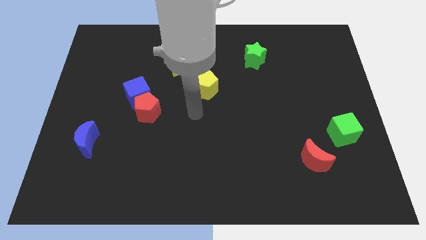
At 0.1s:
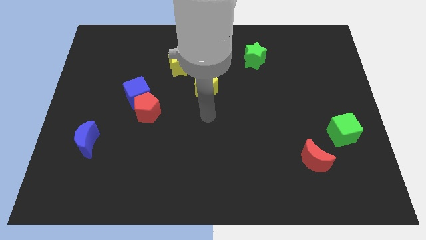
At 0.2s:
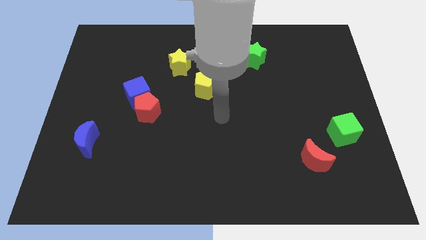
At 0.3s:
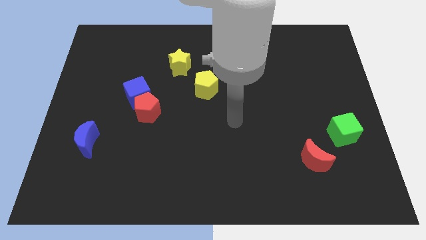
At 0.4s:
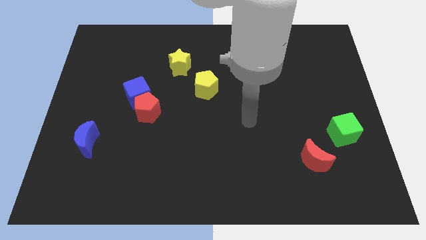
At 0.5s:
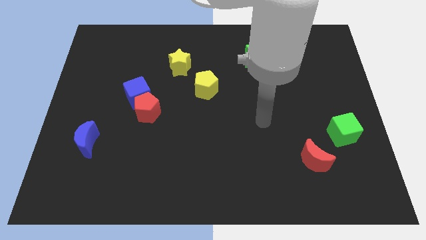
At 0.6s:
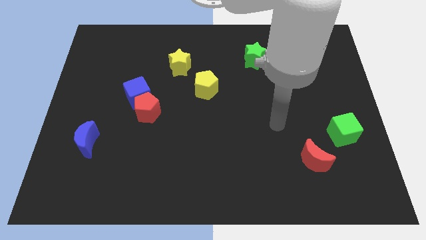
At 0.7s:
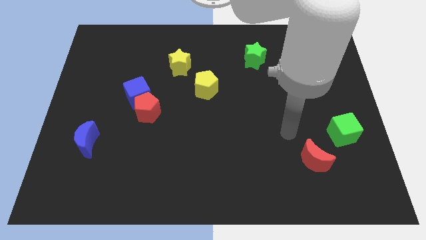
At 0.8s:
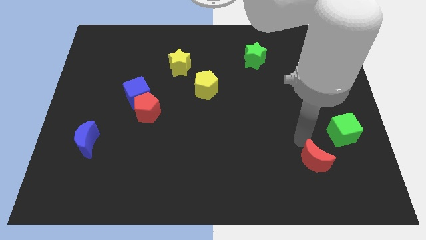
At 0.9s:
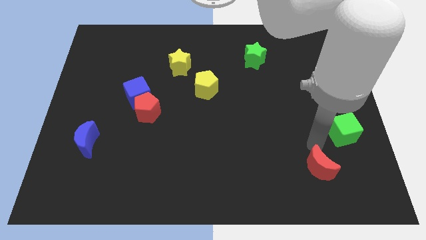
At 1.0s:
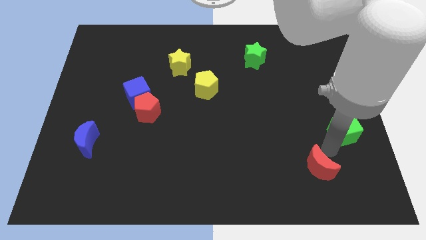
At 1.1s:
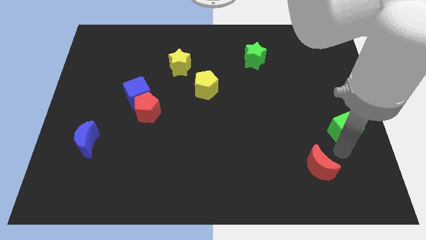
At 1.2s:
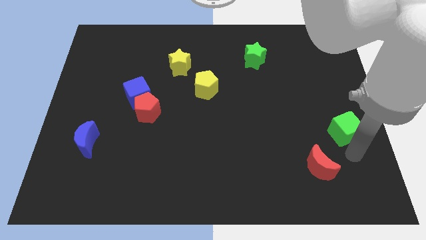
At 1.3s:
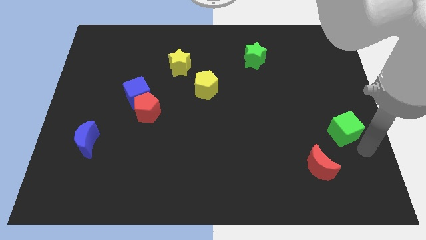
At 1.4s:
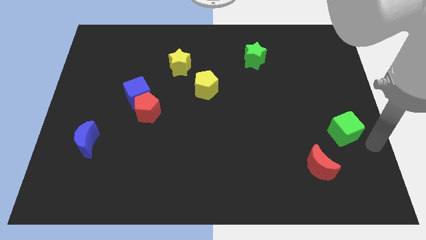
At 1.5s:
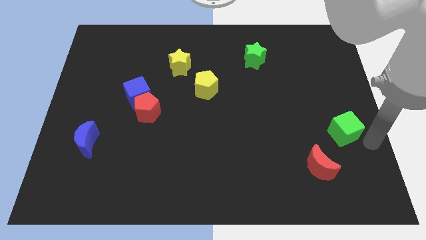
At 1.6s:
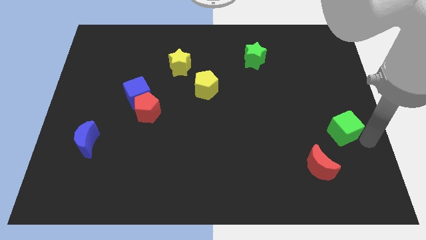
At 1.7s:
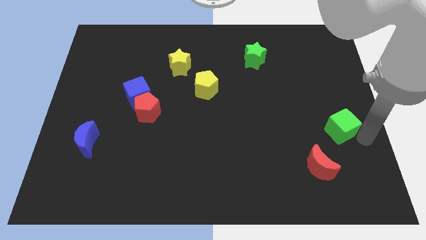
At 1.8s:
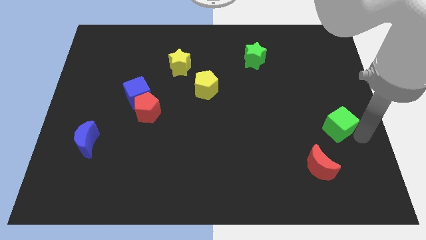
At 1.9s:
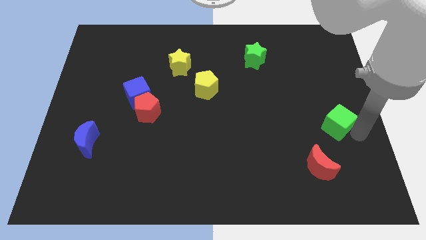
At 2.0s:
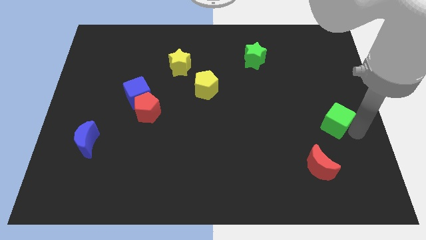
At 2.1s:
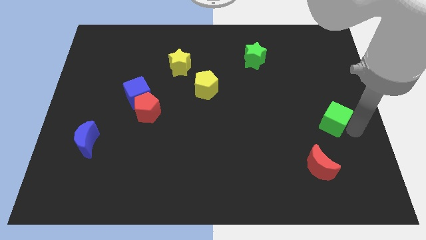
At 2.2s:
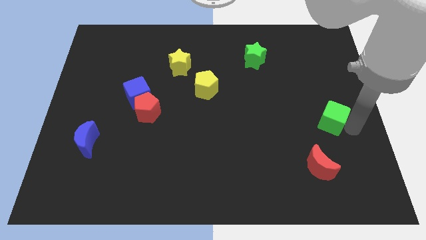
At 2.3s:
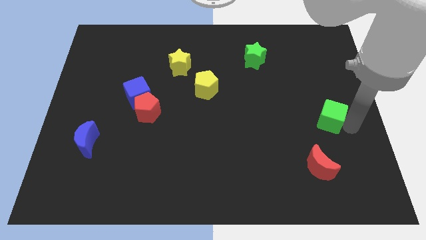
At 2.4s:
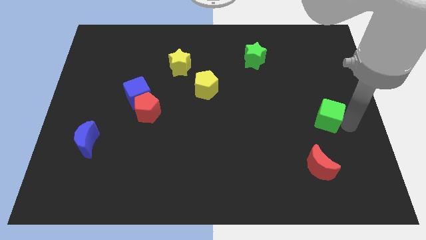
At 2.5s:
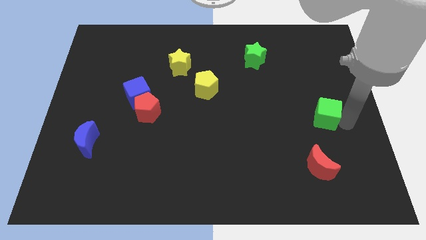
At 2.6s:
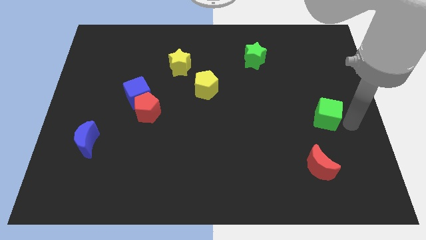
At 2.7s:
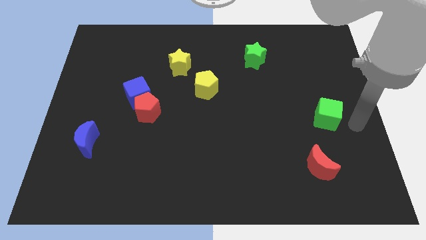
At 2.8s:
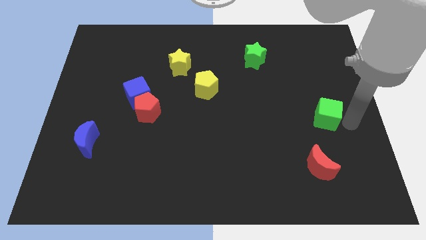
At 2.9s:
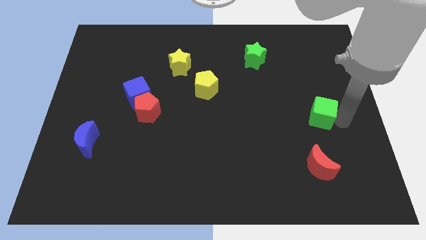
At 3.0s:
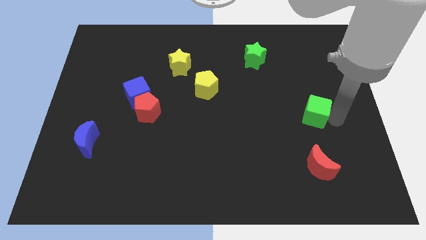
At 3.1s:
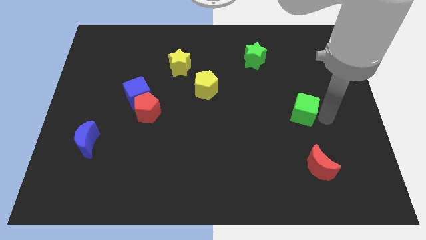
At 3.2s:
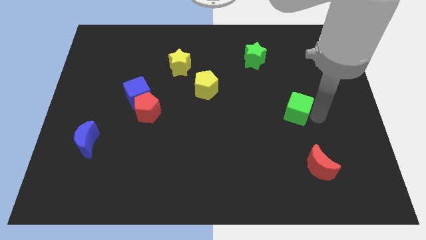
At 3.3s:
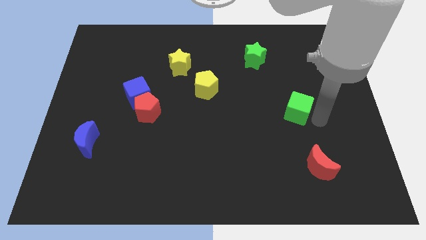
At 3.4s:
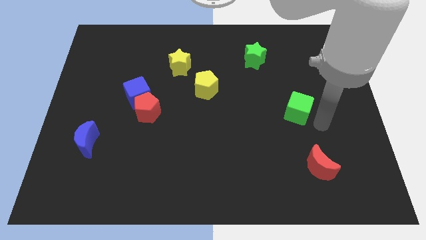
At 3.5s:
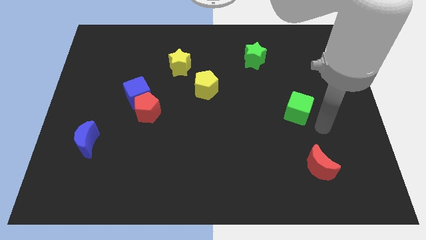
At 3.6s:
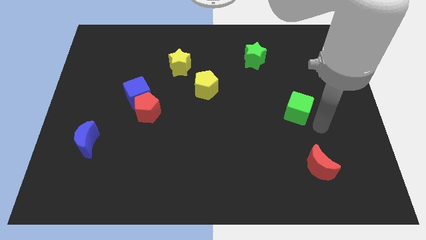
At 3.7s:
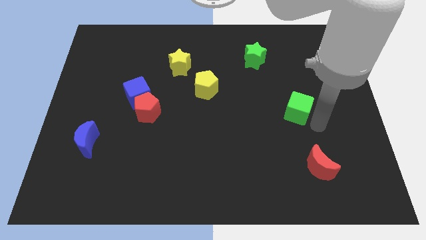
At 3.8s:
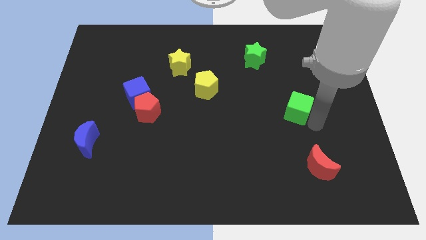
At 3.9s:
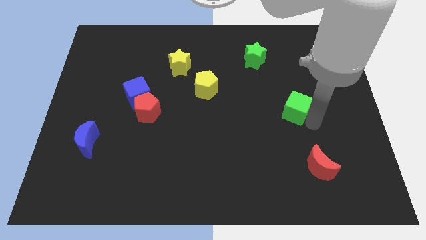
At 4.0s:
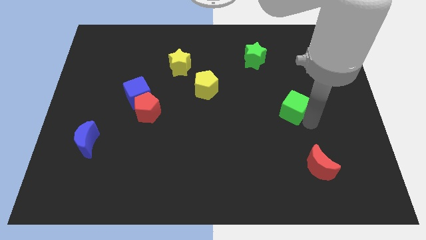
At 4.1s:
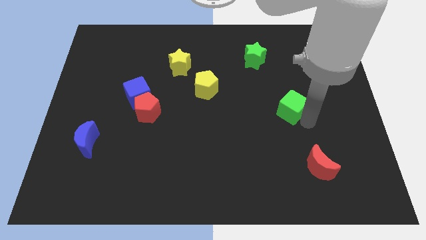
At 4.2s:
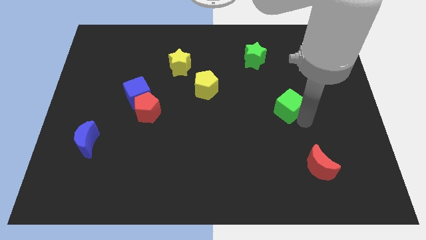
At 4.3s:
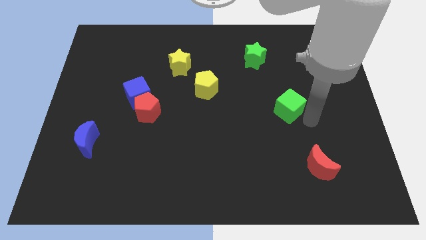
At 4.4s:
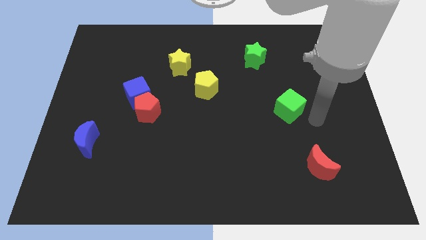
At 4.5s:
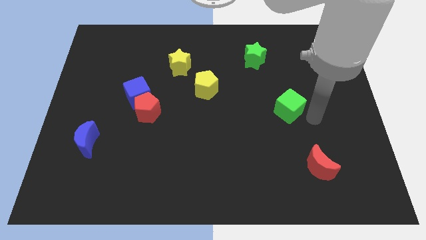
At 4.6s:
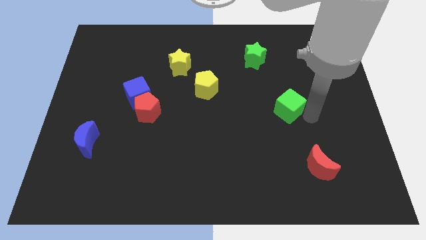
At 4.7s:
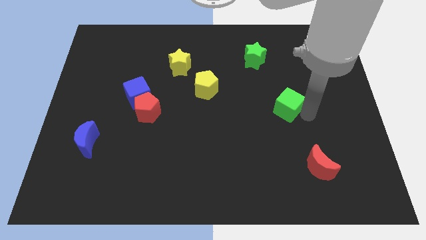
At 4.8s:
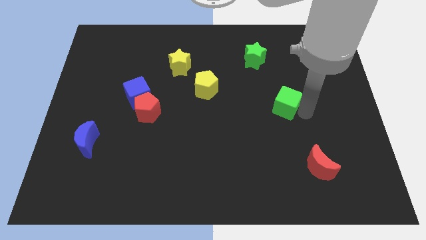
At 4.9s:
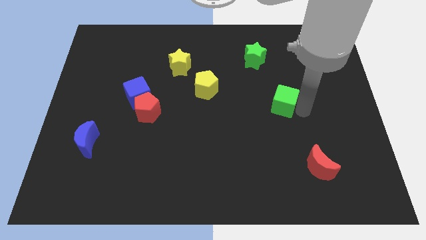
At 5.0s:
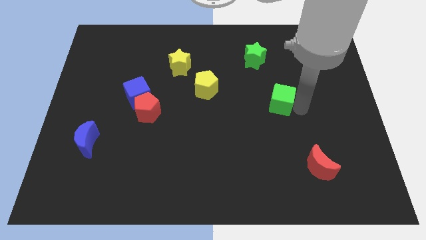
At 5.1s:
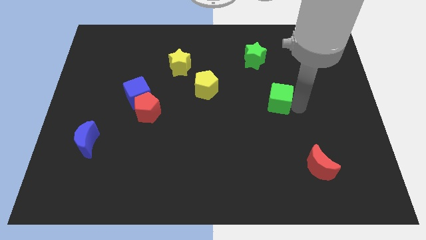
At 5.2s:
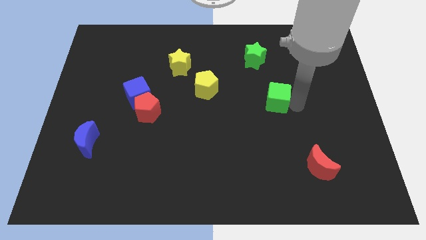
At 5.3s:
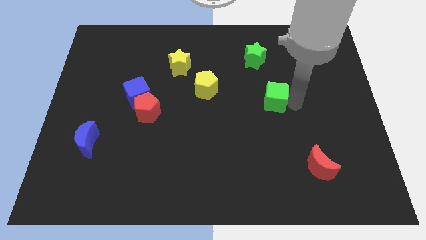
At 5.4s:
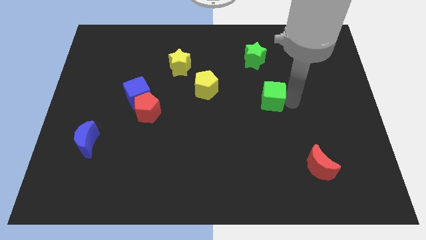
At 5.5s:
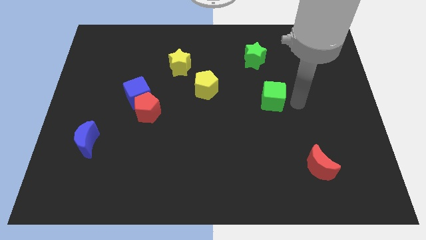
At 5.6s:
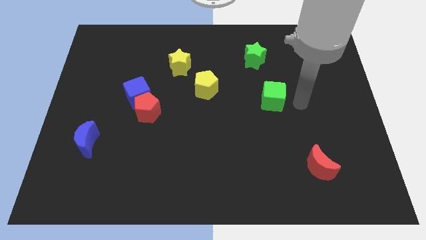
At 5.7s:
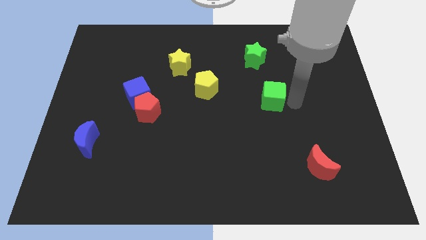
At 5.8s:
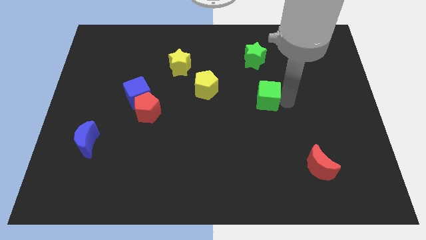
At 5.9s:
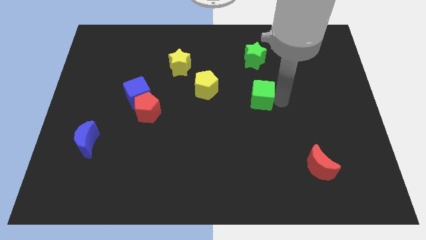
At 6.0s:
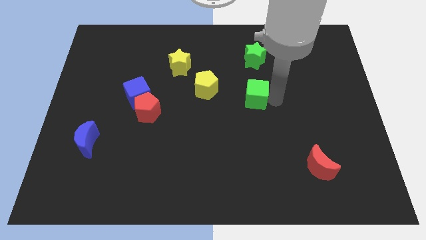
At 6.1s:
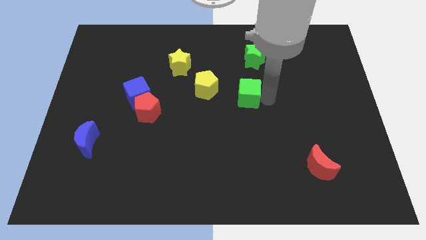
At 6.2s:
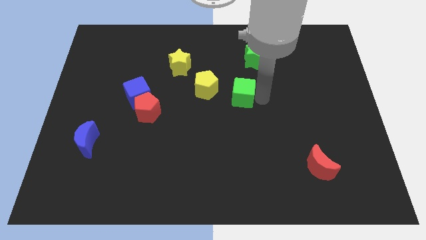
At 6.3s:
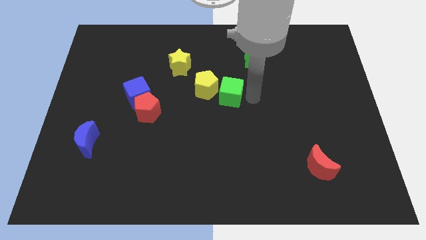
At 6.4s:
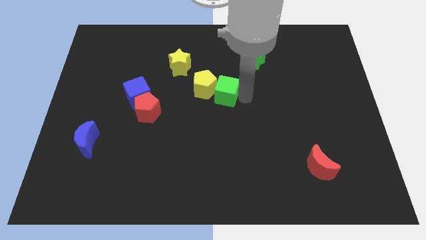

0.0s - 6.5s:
move the green cube next to the yellow pentagon
